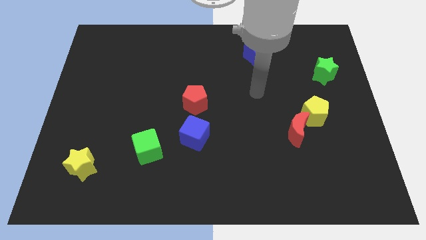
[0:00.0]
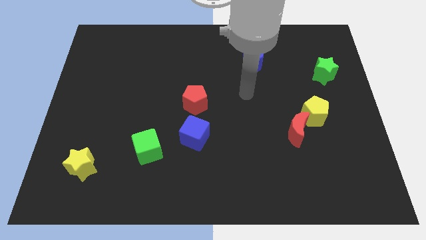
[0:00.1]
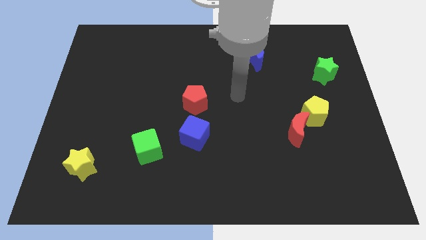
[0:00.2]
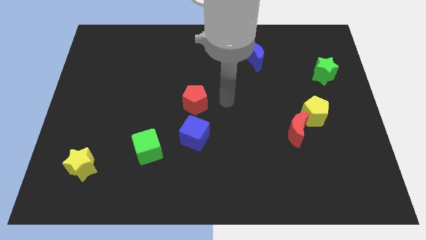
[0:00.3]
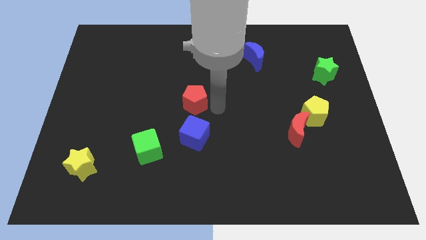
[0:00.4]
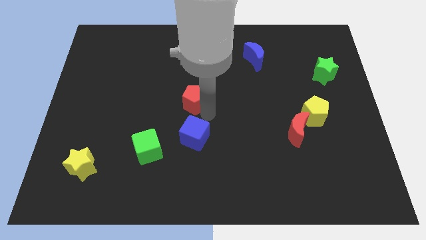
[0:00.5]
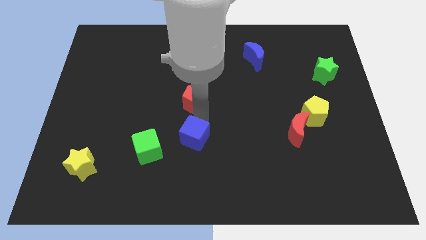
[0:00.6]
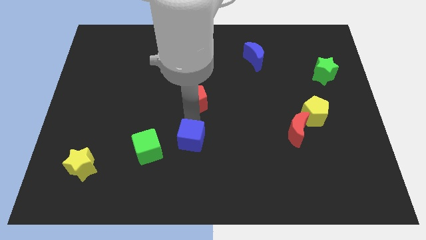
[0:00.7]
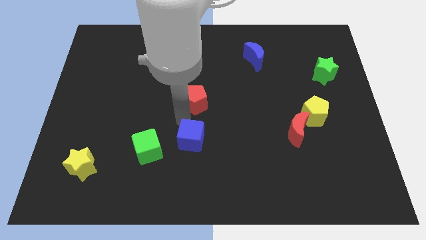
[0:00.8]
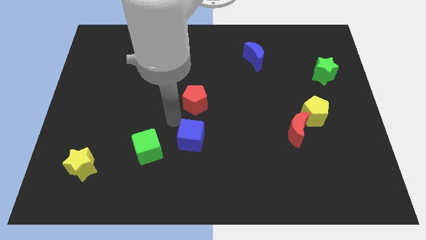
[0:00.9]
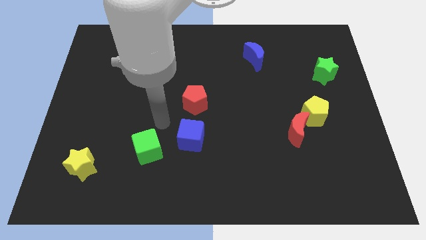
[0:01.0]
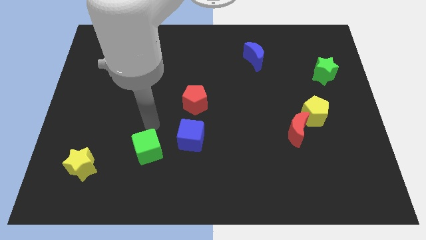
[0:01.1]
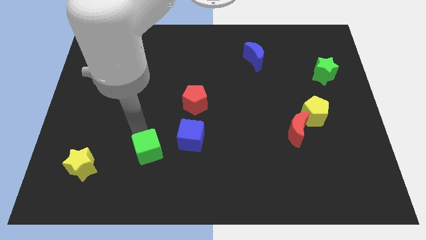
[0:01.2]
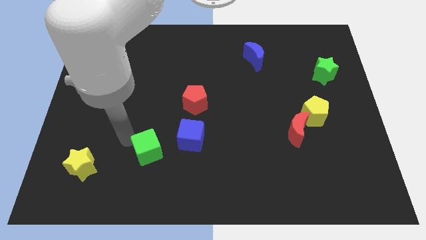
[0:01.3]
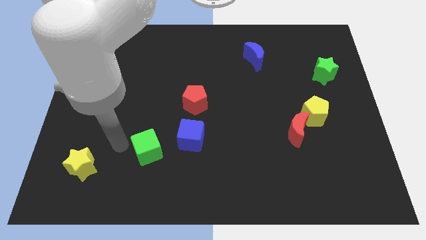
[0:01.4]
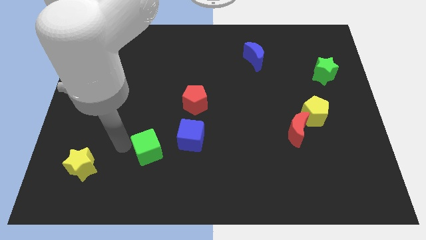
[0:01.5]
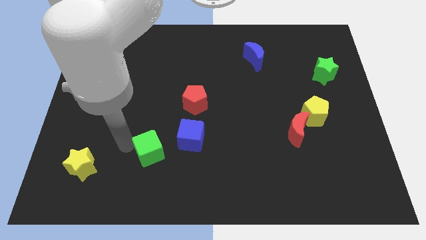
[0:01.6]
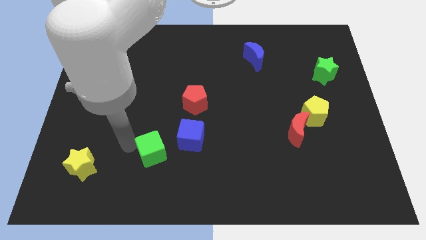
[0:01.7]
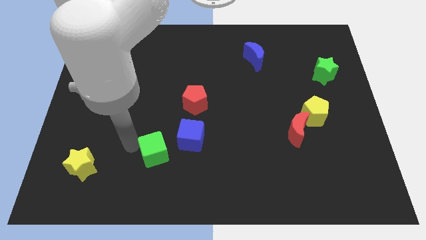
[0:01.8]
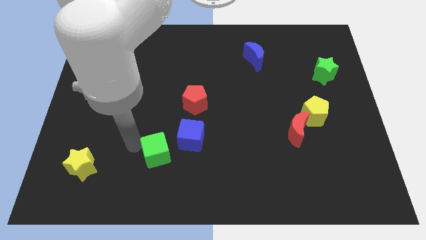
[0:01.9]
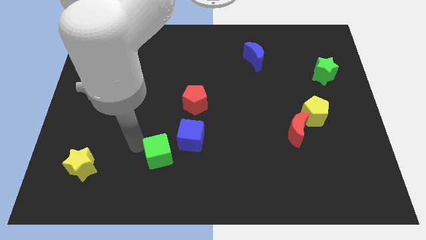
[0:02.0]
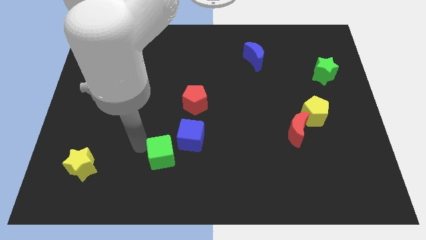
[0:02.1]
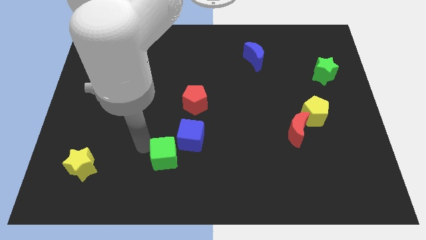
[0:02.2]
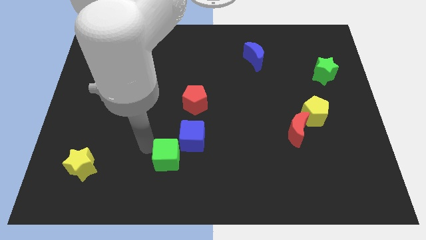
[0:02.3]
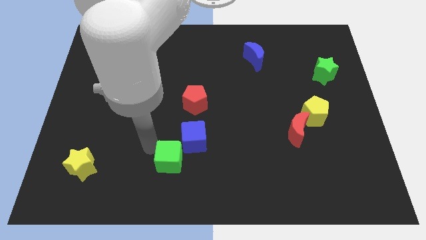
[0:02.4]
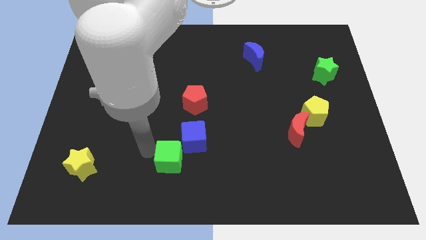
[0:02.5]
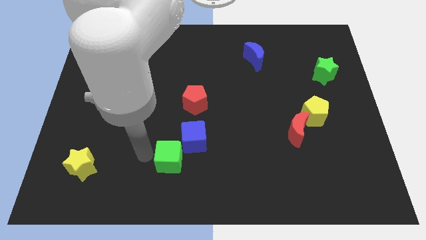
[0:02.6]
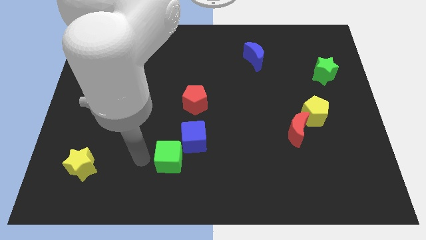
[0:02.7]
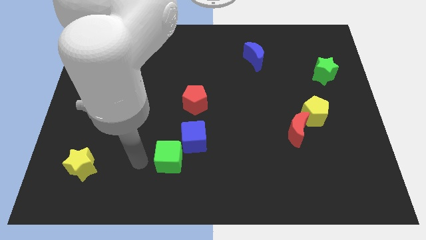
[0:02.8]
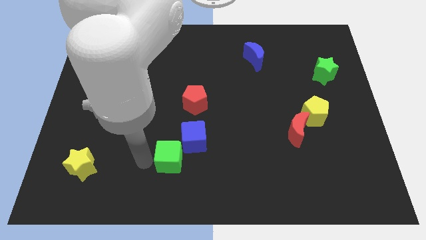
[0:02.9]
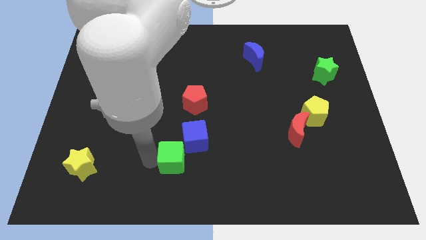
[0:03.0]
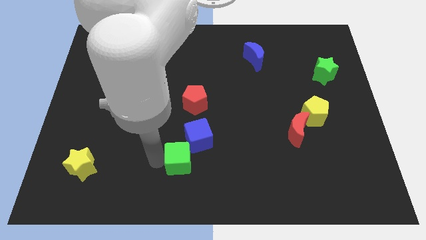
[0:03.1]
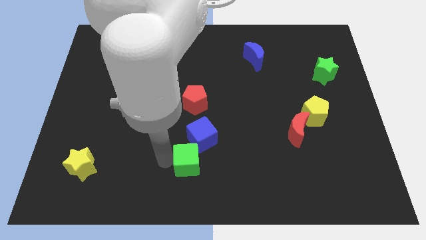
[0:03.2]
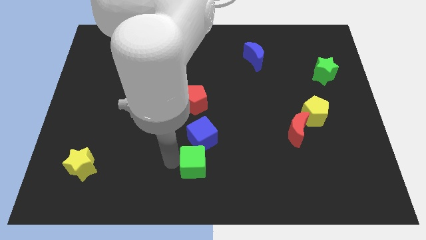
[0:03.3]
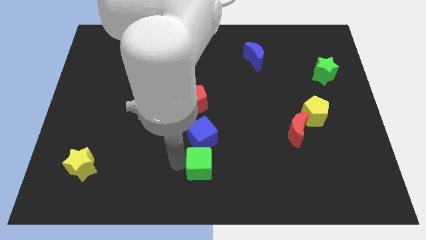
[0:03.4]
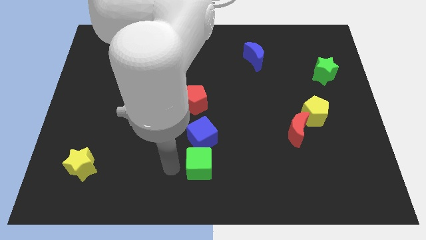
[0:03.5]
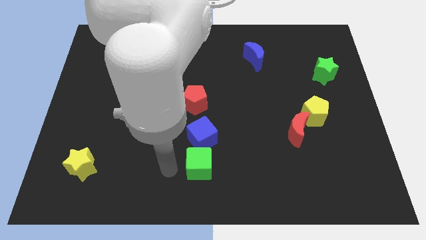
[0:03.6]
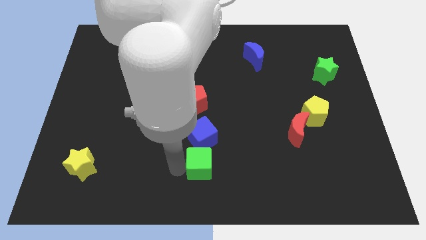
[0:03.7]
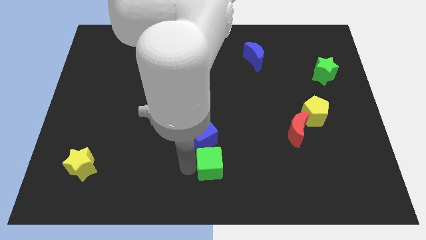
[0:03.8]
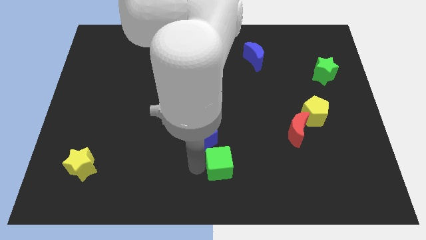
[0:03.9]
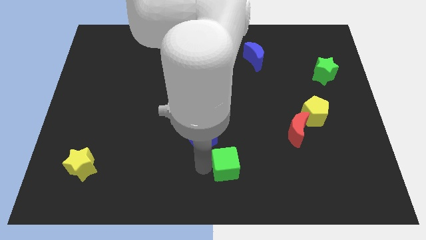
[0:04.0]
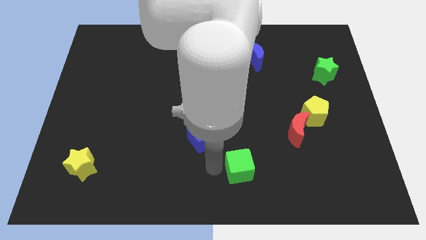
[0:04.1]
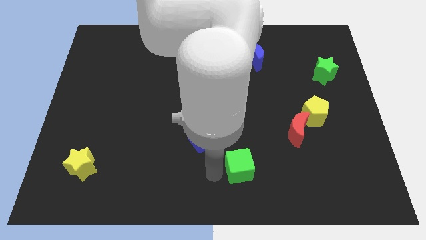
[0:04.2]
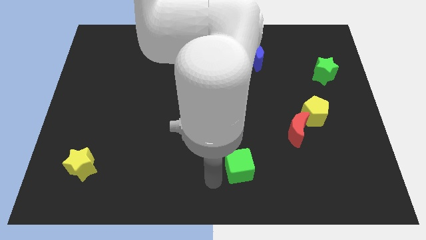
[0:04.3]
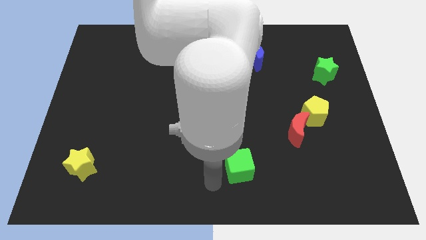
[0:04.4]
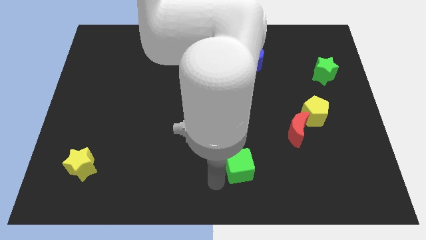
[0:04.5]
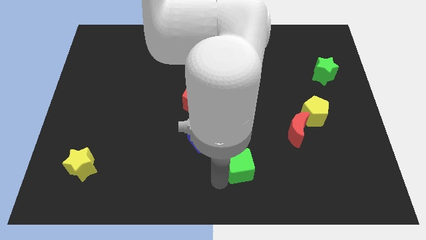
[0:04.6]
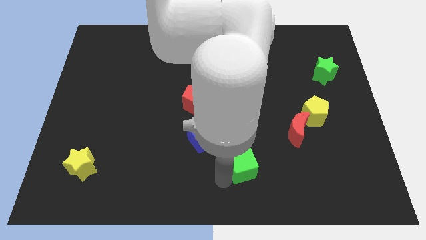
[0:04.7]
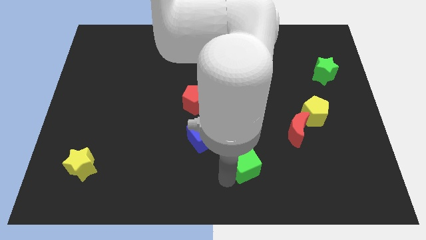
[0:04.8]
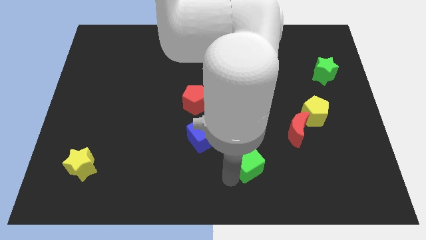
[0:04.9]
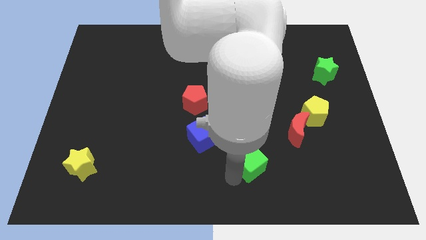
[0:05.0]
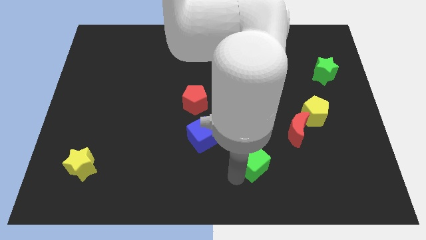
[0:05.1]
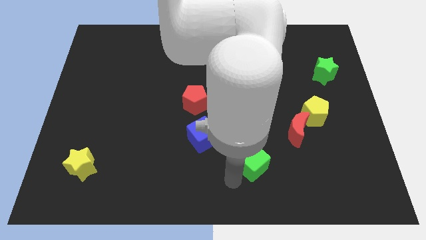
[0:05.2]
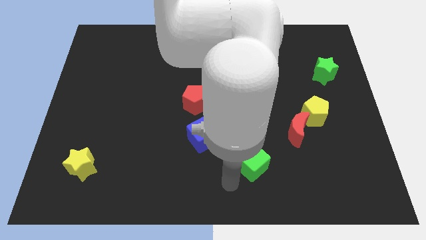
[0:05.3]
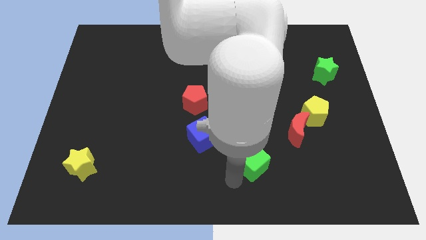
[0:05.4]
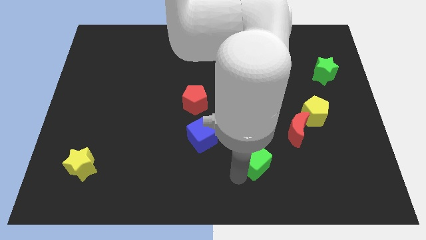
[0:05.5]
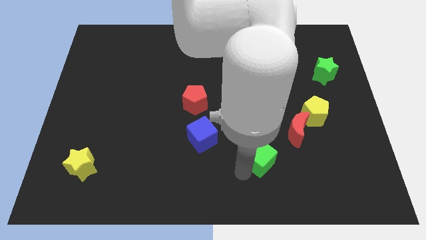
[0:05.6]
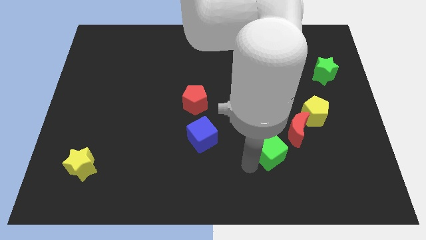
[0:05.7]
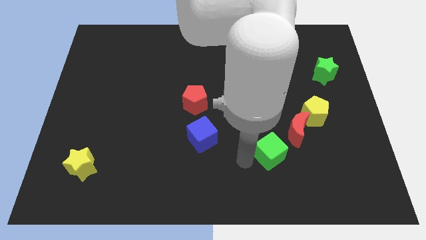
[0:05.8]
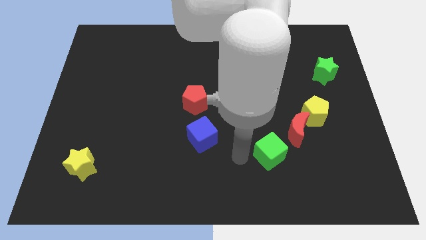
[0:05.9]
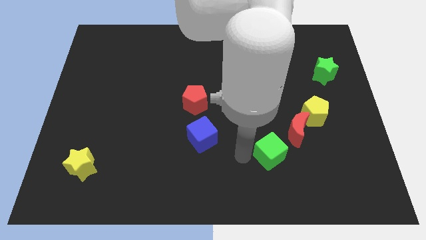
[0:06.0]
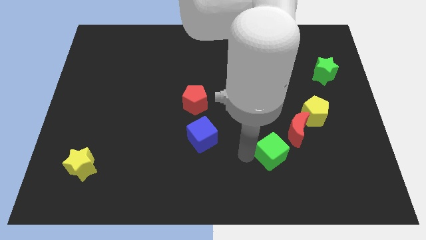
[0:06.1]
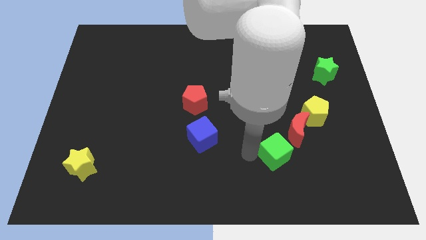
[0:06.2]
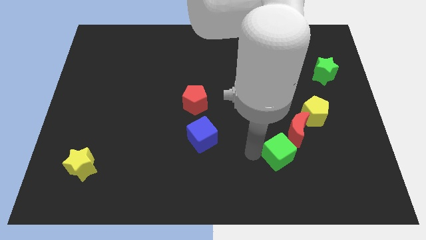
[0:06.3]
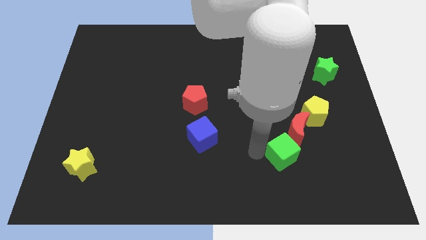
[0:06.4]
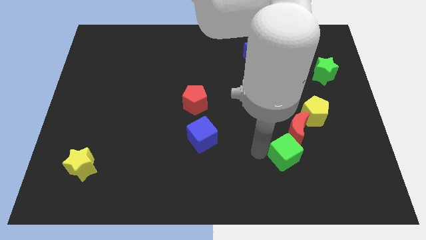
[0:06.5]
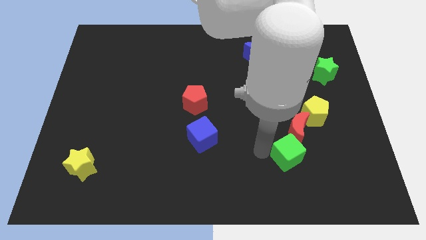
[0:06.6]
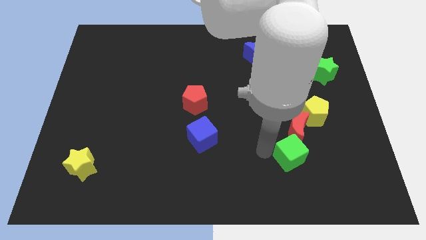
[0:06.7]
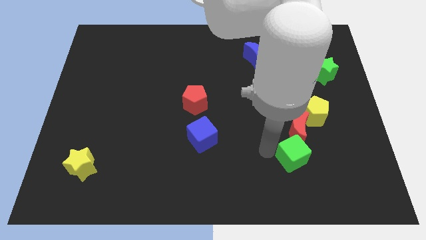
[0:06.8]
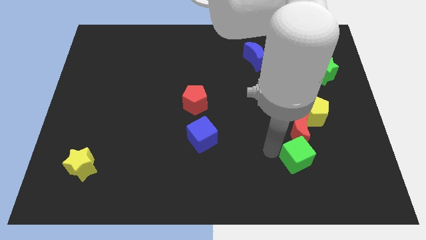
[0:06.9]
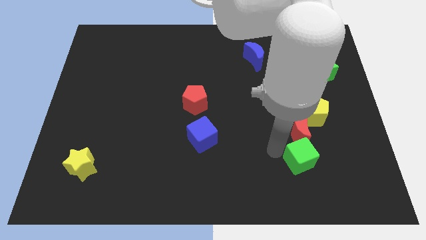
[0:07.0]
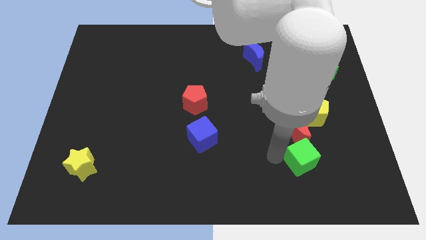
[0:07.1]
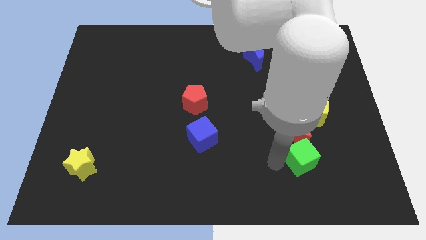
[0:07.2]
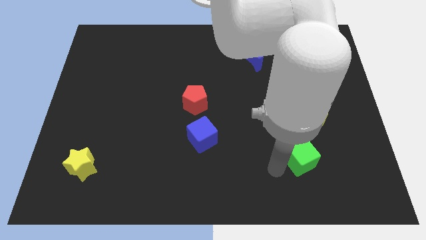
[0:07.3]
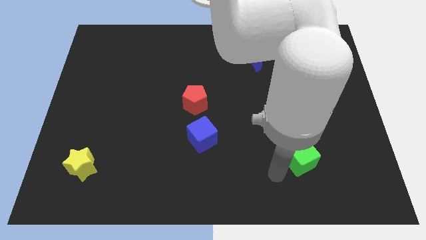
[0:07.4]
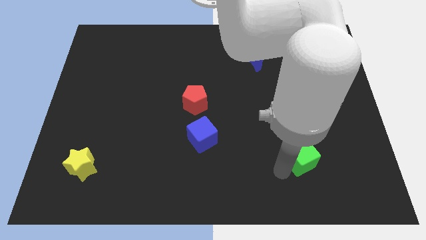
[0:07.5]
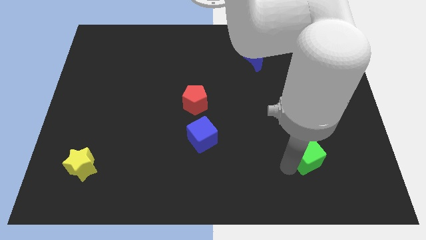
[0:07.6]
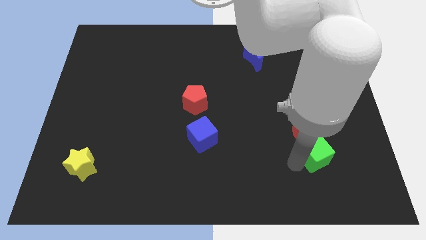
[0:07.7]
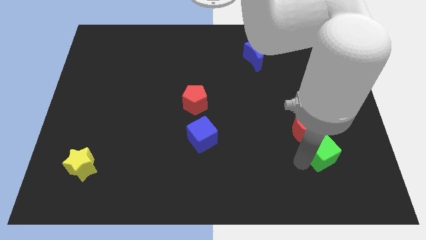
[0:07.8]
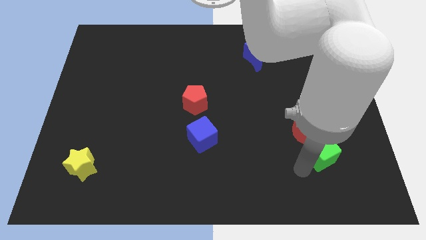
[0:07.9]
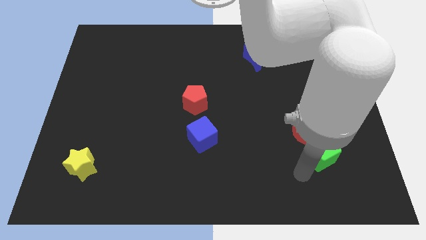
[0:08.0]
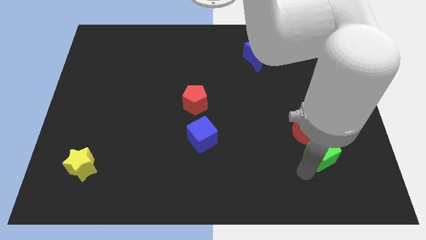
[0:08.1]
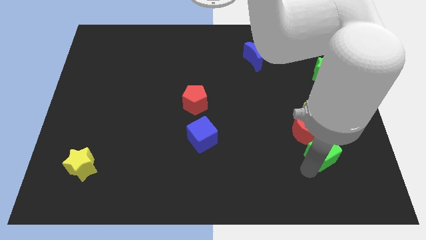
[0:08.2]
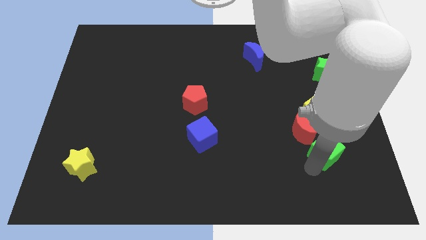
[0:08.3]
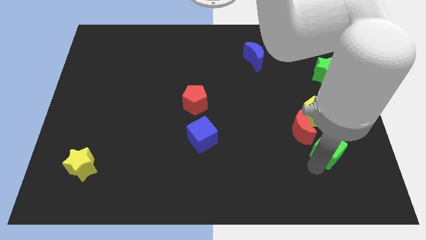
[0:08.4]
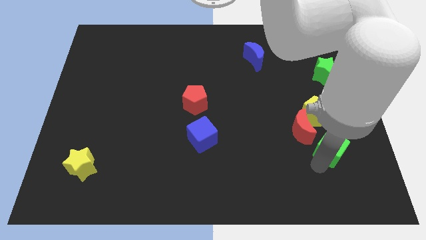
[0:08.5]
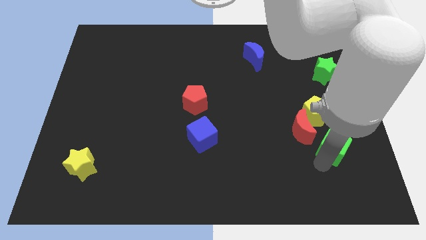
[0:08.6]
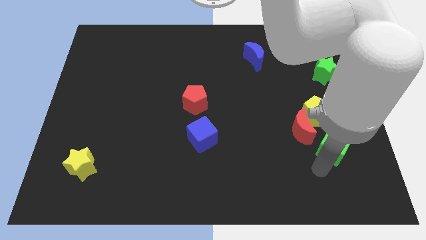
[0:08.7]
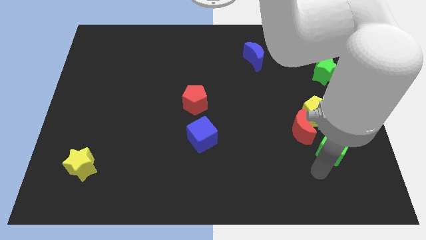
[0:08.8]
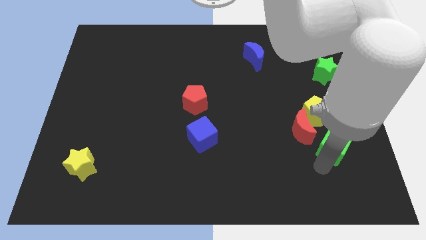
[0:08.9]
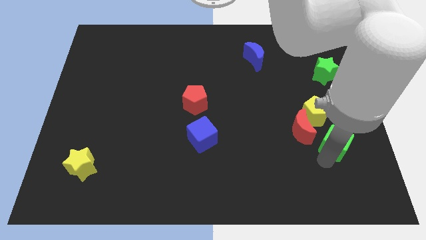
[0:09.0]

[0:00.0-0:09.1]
put the green cube diagonally down and to the right of the yellow pentagon
